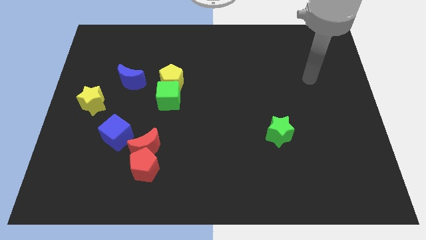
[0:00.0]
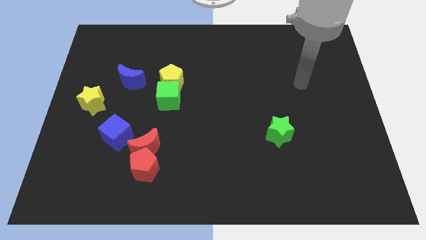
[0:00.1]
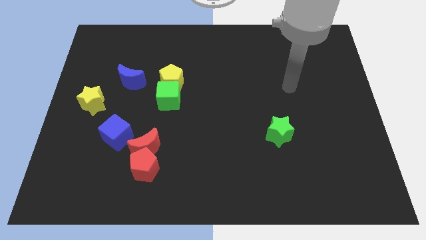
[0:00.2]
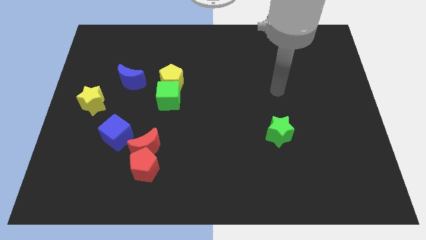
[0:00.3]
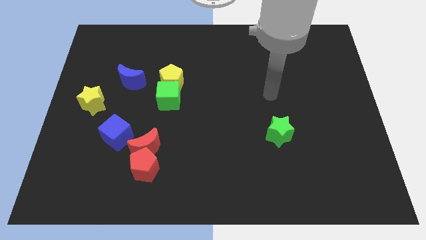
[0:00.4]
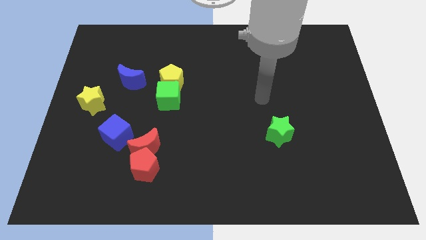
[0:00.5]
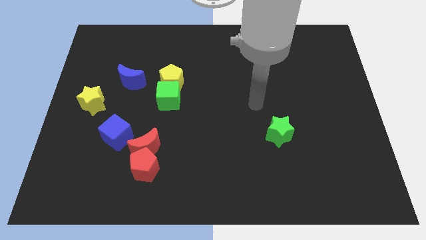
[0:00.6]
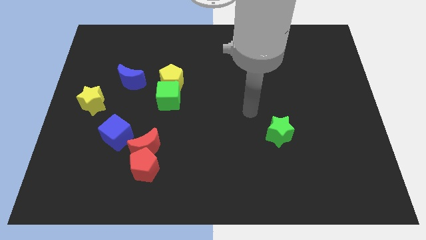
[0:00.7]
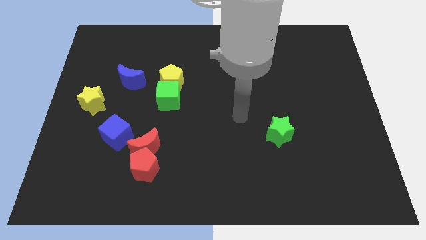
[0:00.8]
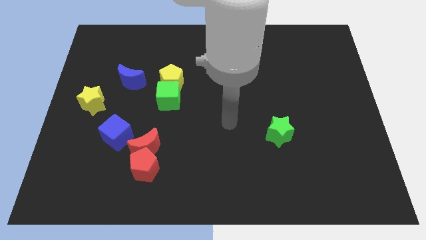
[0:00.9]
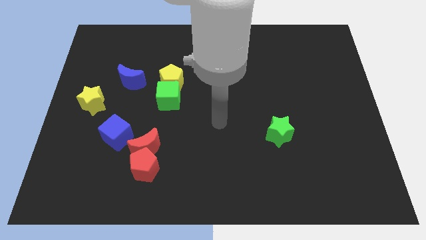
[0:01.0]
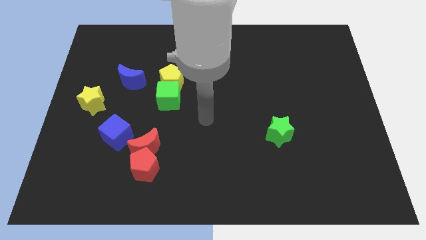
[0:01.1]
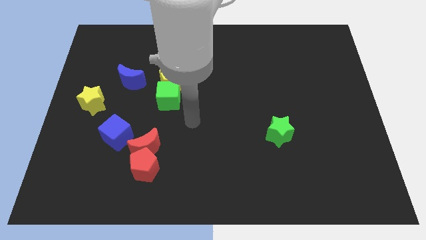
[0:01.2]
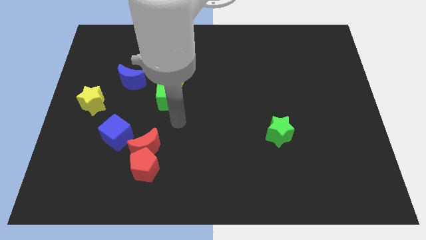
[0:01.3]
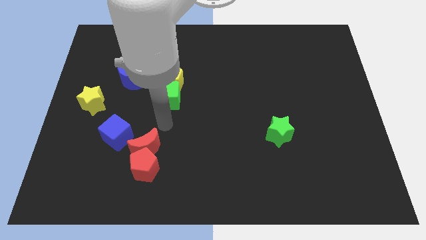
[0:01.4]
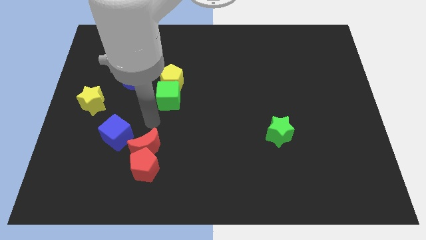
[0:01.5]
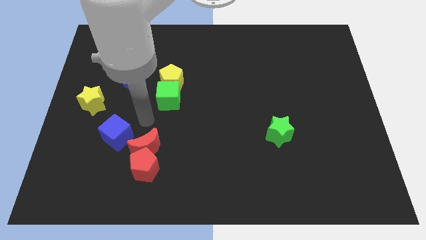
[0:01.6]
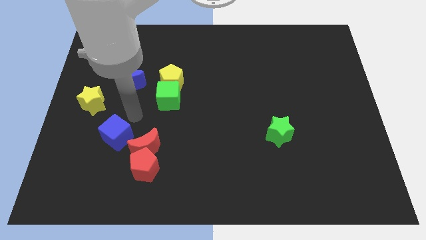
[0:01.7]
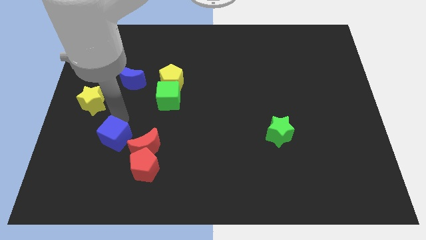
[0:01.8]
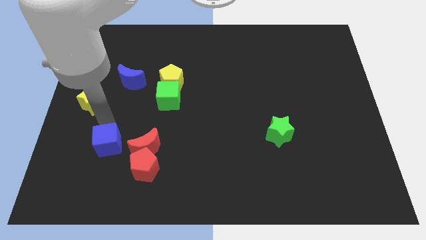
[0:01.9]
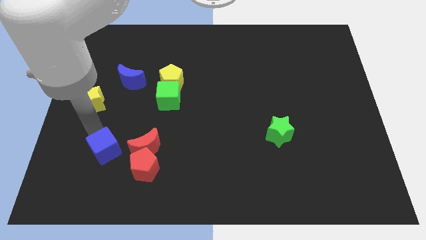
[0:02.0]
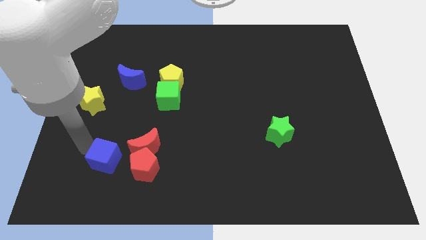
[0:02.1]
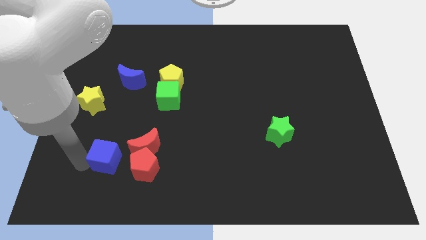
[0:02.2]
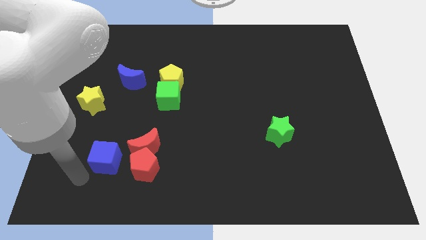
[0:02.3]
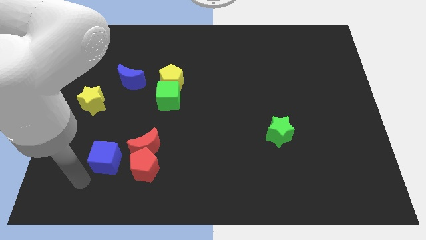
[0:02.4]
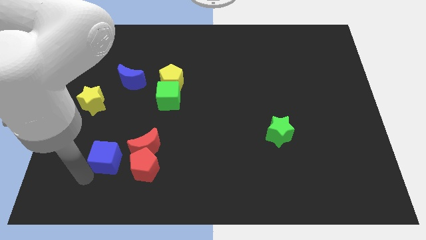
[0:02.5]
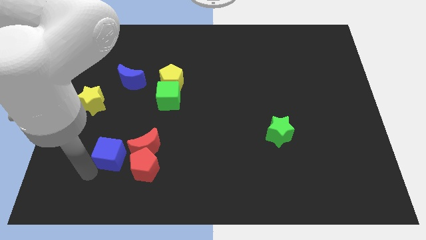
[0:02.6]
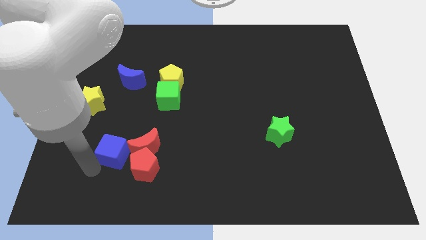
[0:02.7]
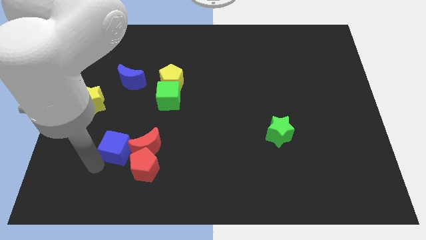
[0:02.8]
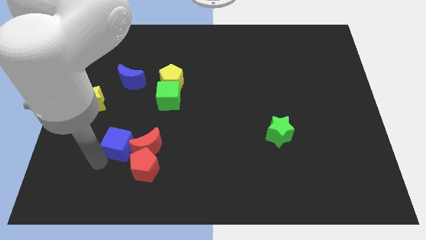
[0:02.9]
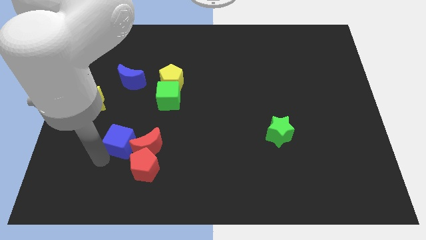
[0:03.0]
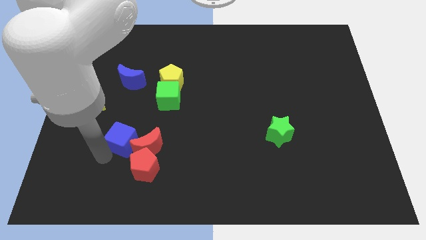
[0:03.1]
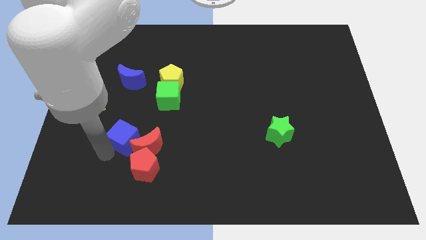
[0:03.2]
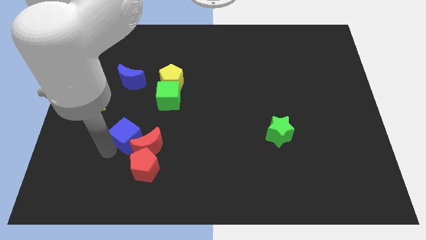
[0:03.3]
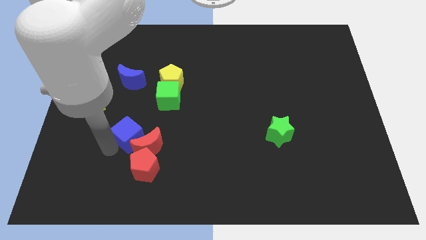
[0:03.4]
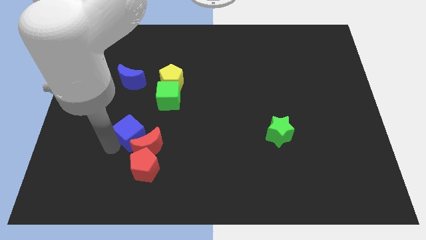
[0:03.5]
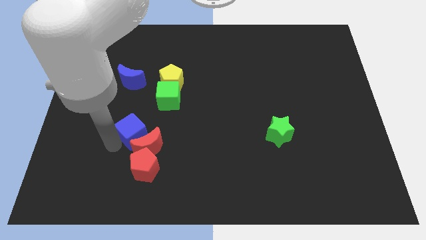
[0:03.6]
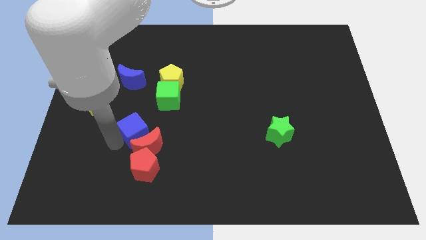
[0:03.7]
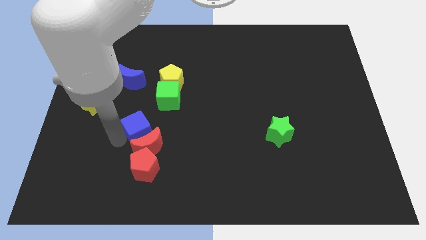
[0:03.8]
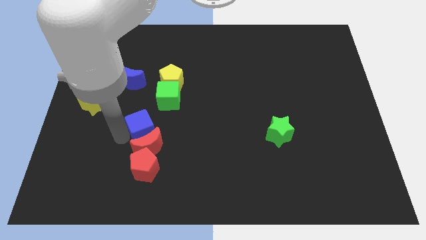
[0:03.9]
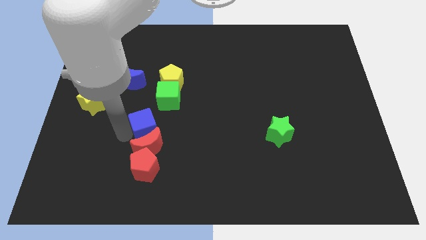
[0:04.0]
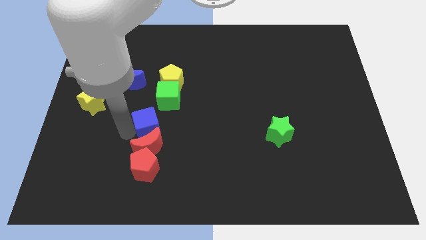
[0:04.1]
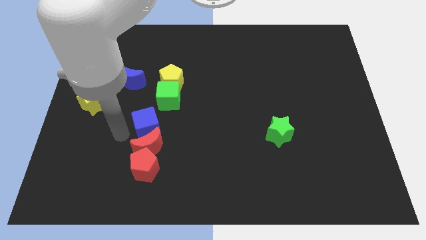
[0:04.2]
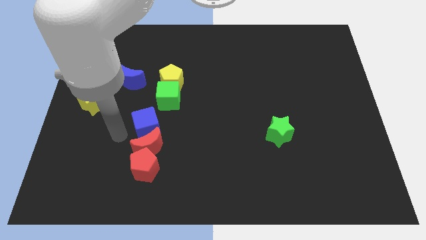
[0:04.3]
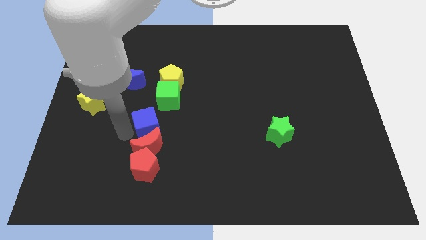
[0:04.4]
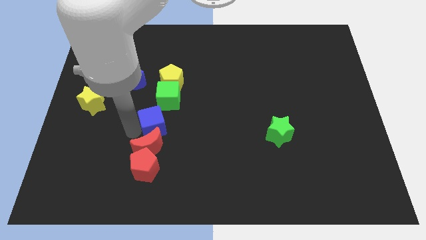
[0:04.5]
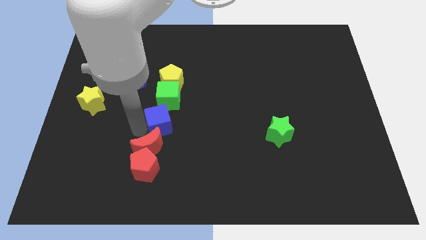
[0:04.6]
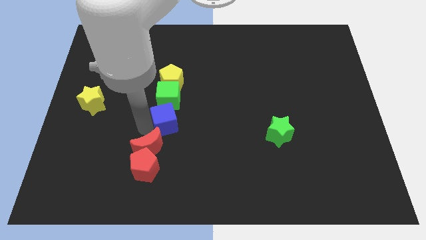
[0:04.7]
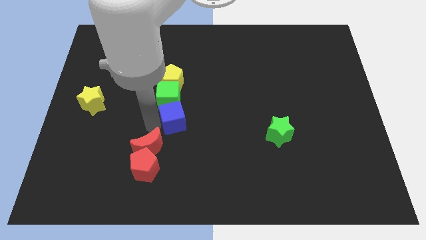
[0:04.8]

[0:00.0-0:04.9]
put the blue cube diagonally down and to the right of the green cube

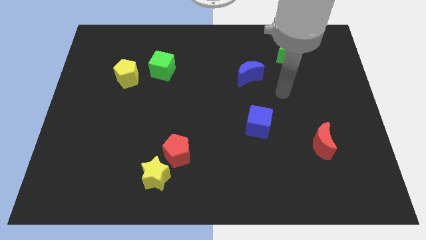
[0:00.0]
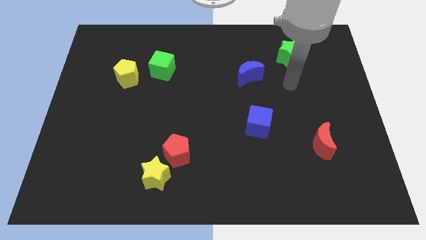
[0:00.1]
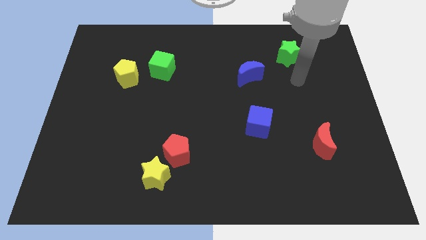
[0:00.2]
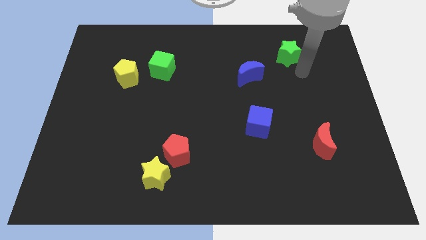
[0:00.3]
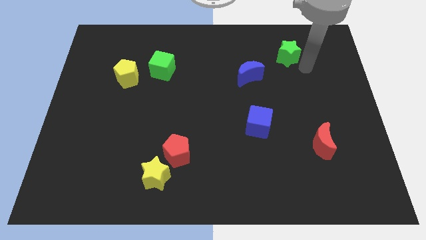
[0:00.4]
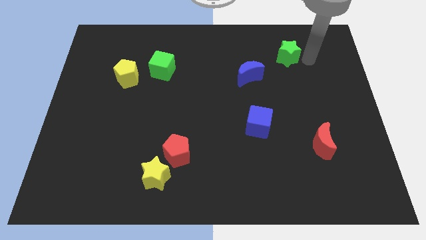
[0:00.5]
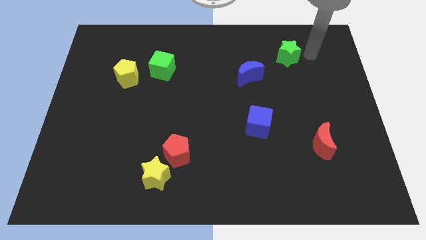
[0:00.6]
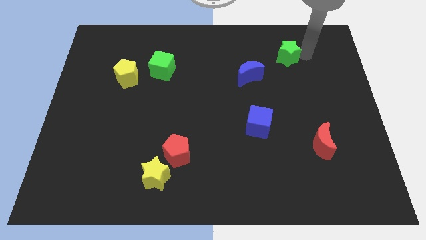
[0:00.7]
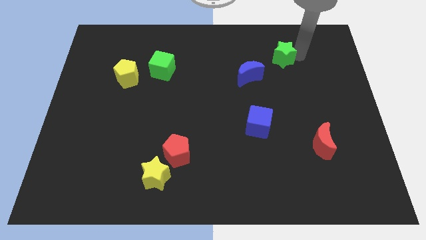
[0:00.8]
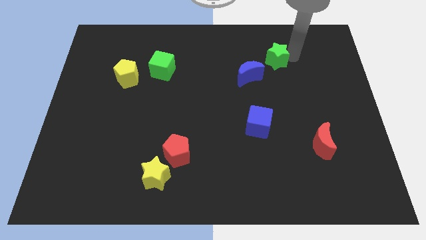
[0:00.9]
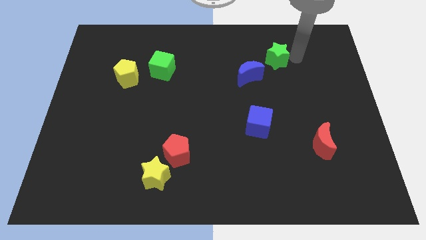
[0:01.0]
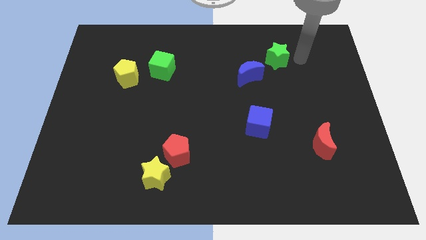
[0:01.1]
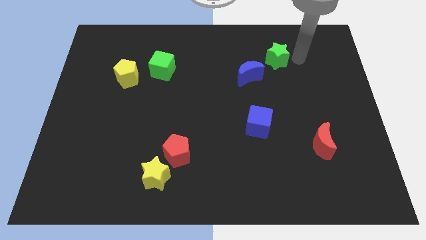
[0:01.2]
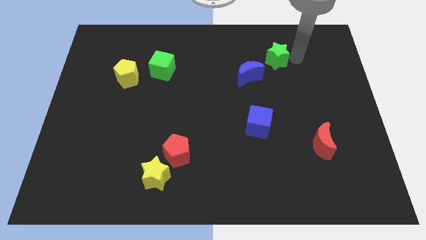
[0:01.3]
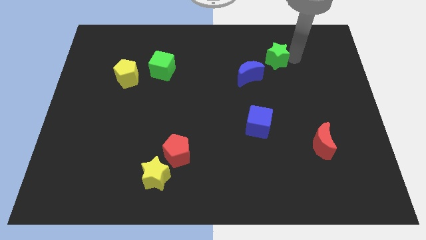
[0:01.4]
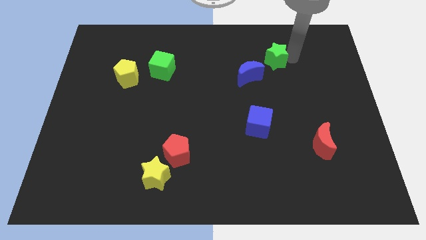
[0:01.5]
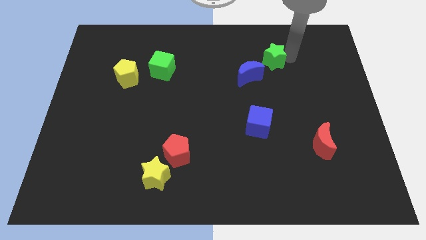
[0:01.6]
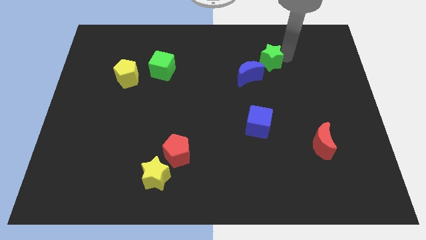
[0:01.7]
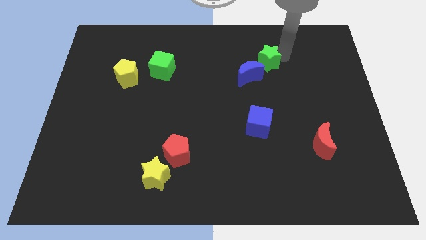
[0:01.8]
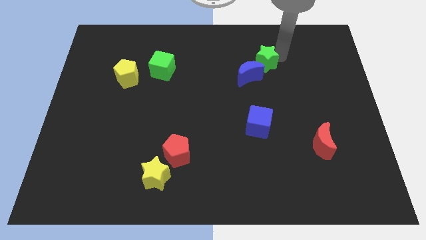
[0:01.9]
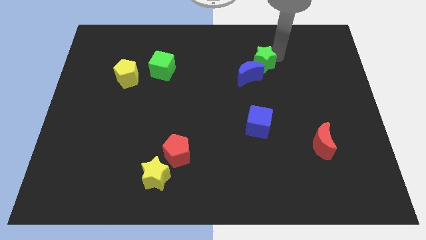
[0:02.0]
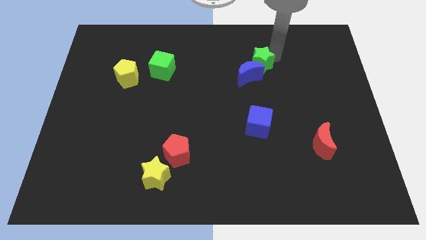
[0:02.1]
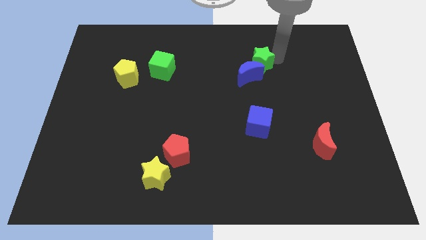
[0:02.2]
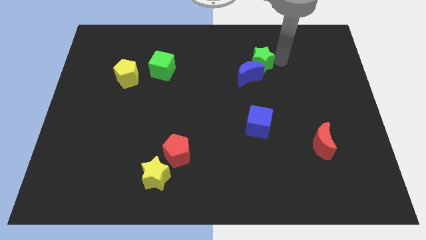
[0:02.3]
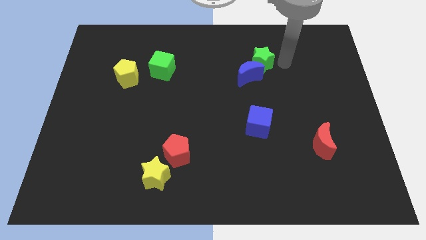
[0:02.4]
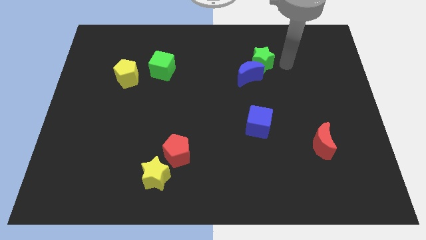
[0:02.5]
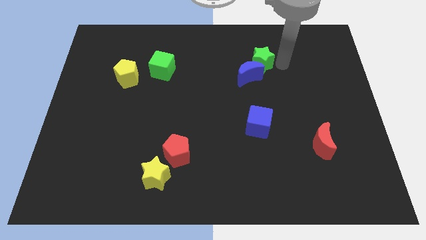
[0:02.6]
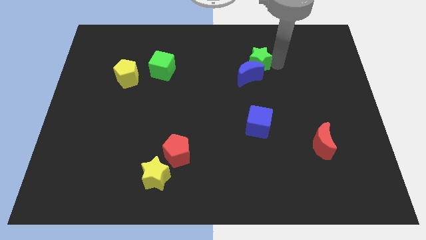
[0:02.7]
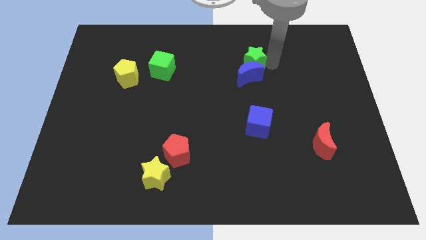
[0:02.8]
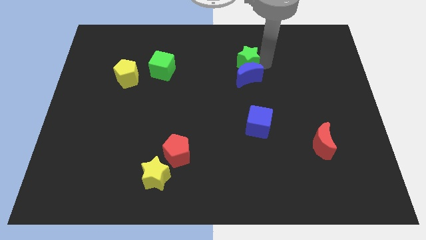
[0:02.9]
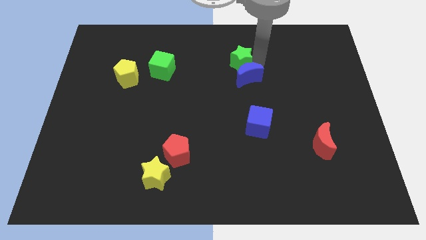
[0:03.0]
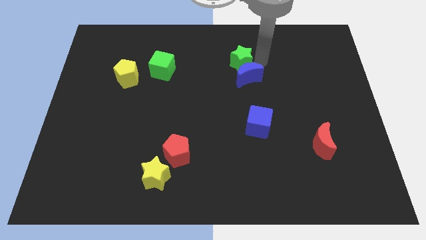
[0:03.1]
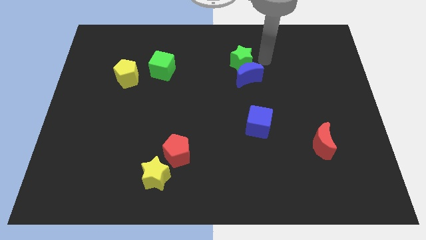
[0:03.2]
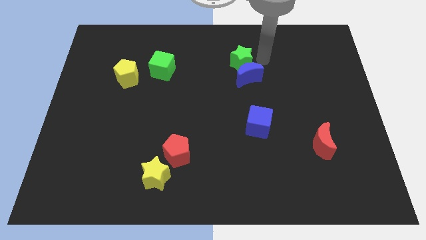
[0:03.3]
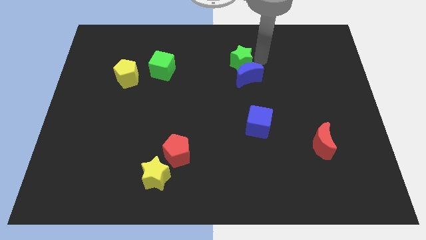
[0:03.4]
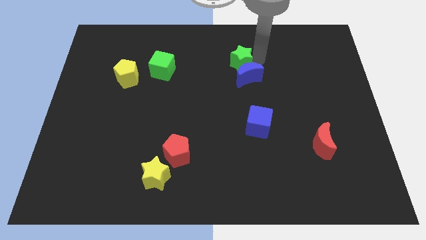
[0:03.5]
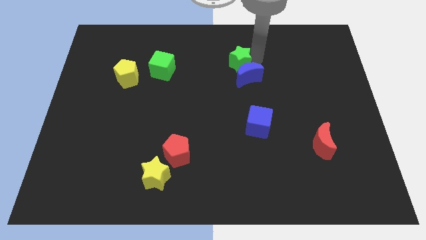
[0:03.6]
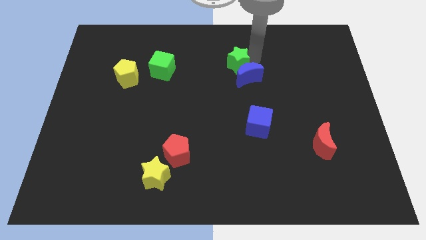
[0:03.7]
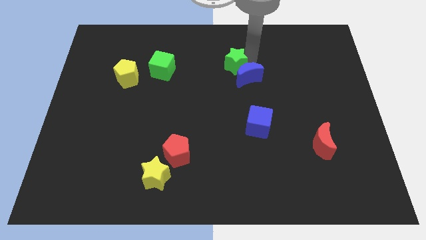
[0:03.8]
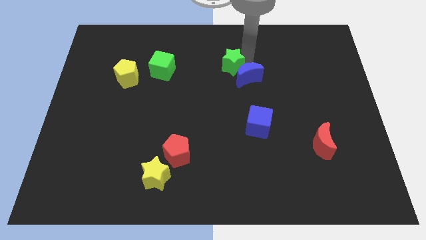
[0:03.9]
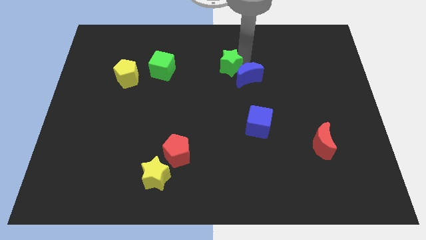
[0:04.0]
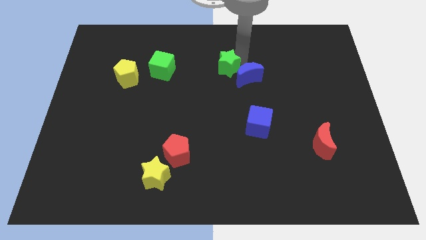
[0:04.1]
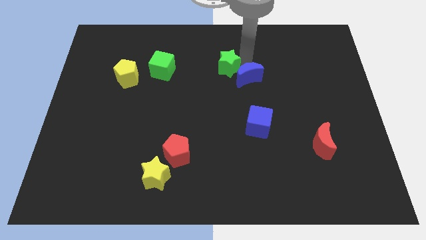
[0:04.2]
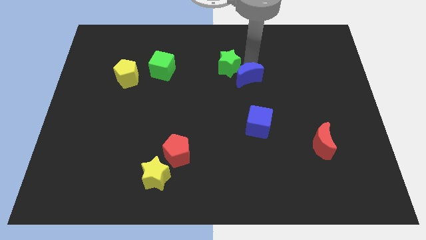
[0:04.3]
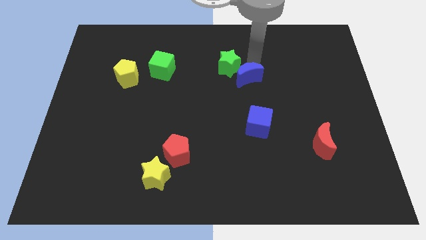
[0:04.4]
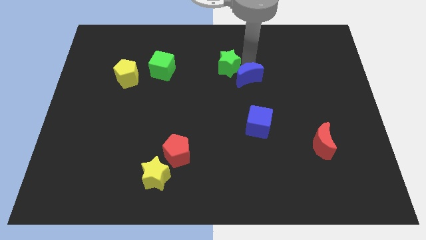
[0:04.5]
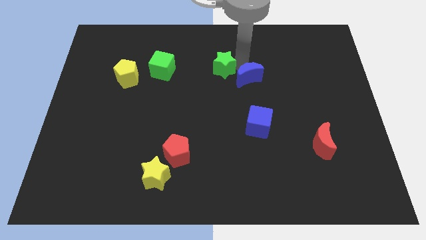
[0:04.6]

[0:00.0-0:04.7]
put the green star just right of the green cube
